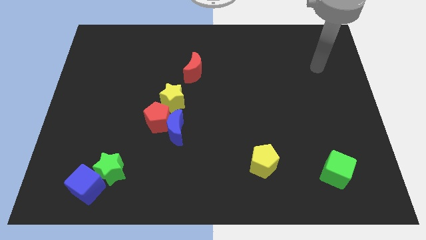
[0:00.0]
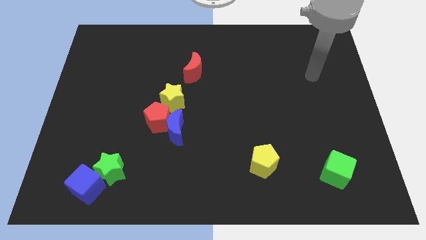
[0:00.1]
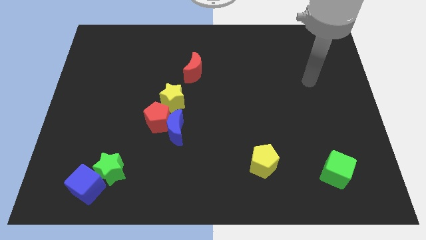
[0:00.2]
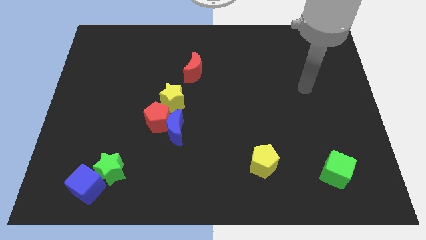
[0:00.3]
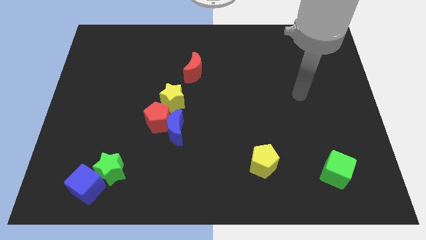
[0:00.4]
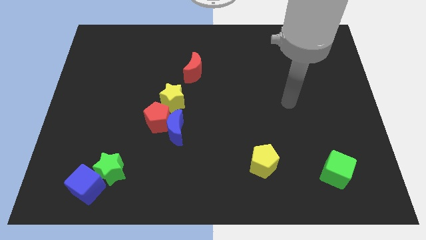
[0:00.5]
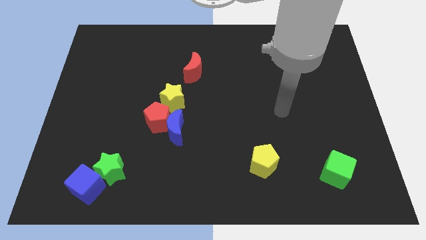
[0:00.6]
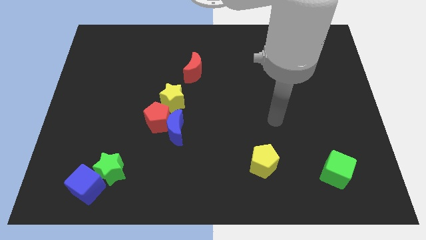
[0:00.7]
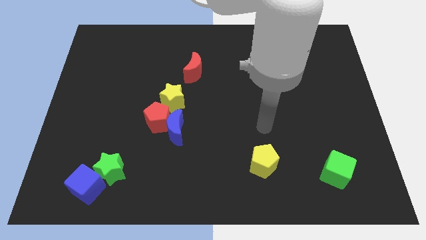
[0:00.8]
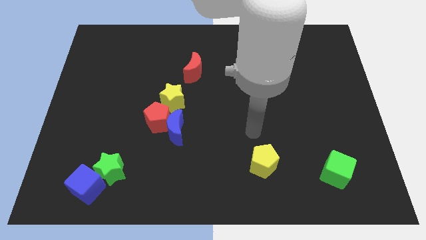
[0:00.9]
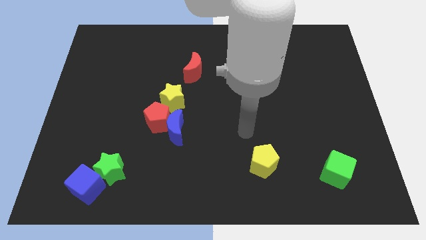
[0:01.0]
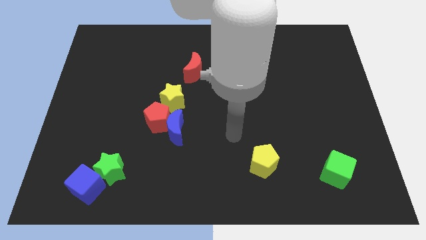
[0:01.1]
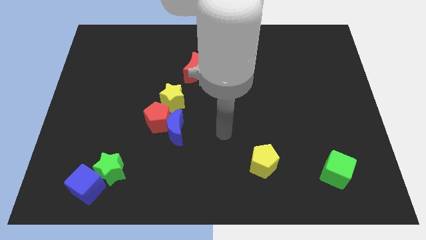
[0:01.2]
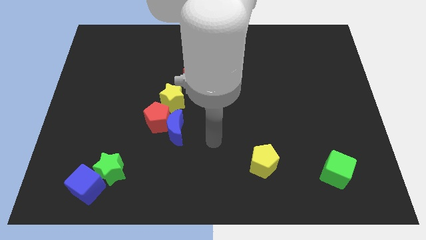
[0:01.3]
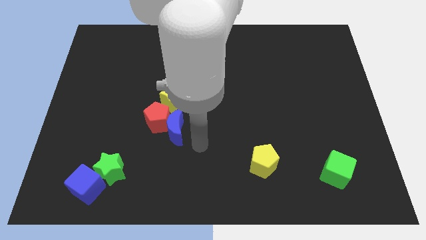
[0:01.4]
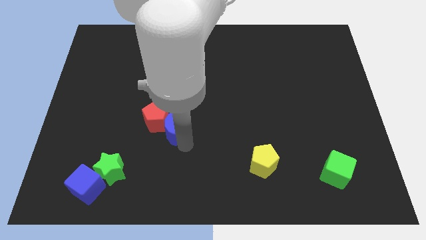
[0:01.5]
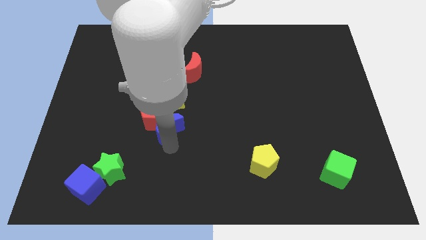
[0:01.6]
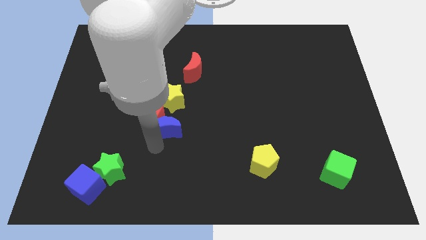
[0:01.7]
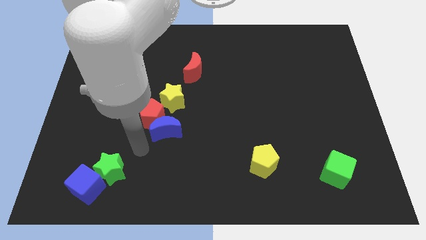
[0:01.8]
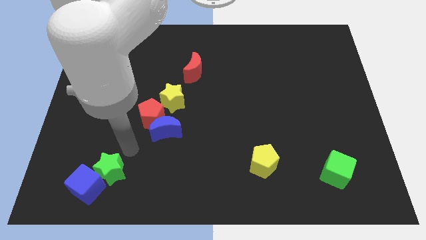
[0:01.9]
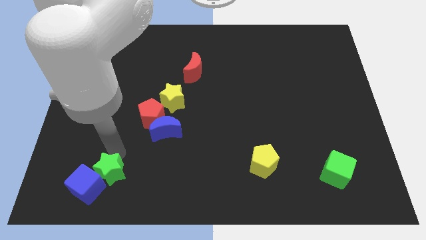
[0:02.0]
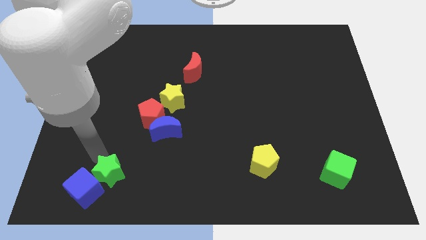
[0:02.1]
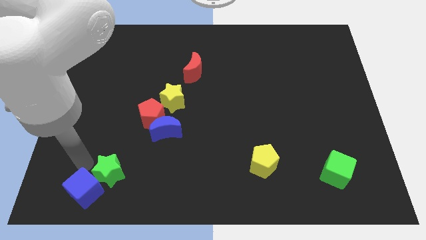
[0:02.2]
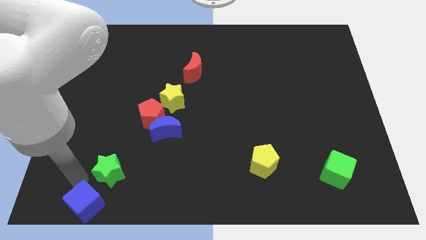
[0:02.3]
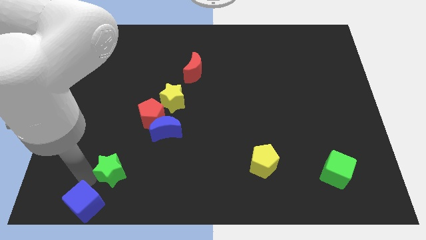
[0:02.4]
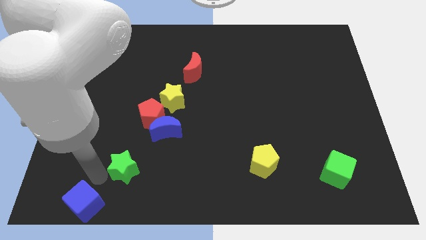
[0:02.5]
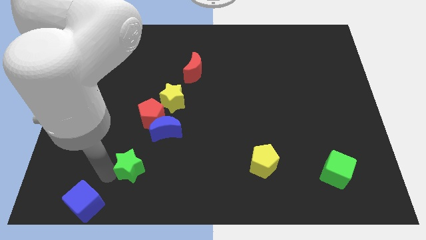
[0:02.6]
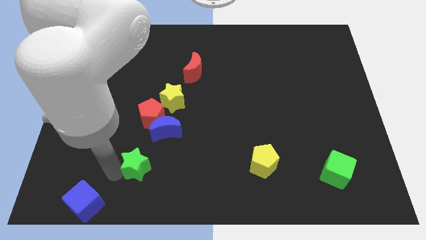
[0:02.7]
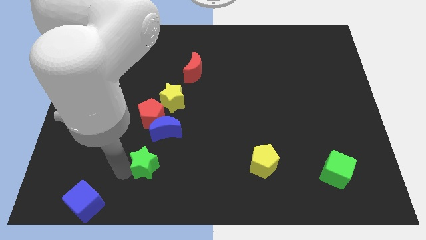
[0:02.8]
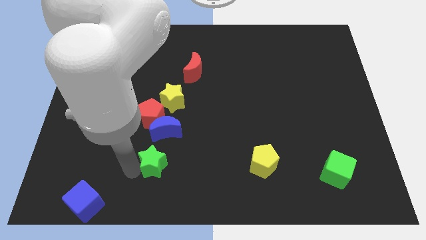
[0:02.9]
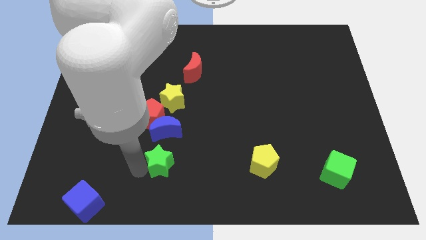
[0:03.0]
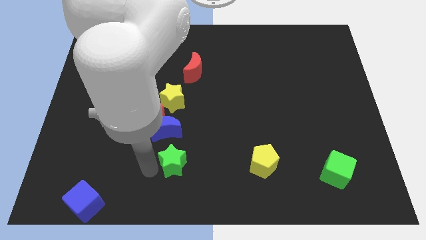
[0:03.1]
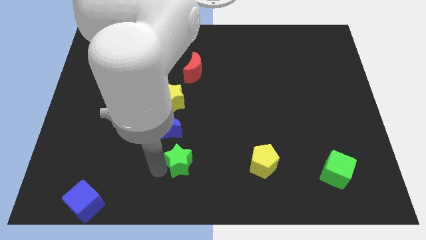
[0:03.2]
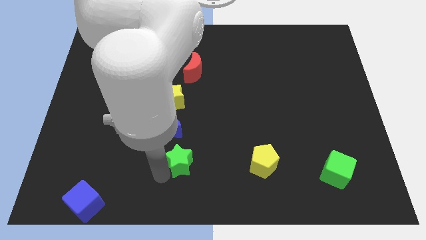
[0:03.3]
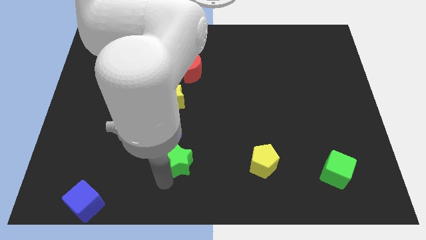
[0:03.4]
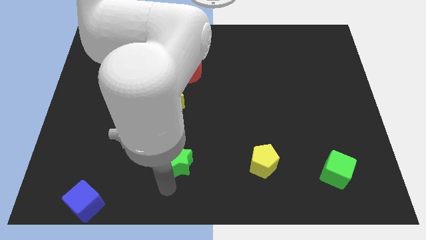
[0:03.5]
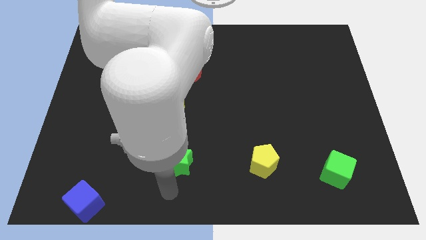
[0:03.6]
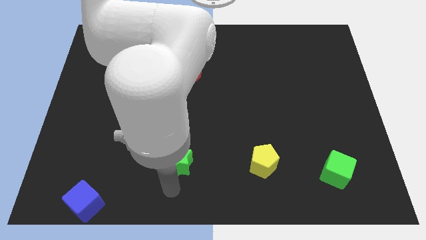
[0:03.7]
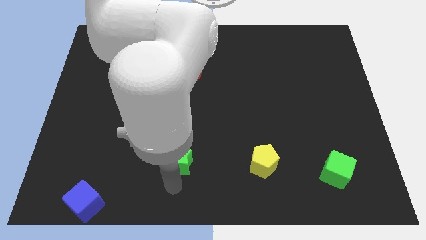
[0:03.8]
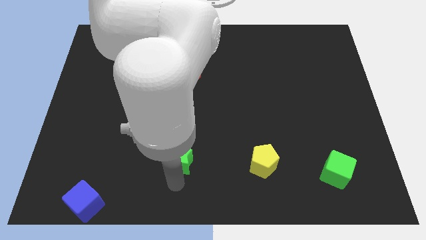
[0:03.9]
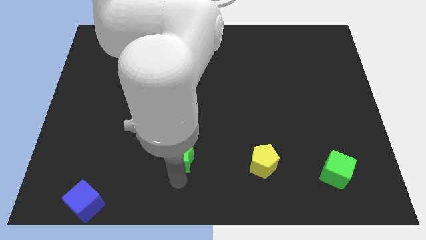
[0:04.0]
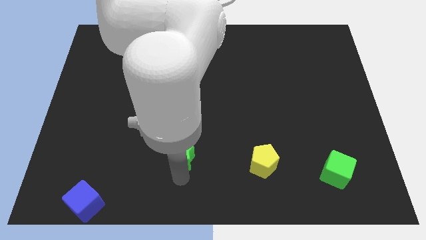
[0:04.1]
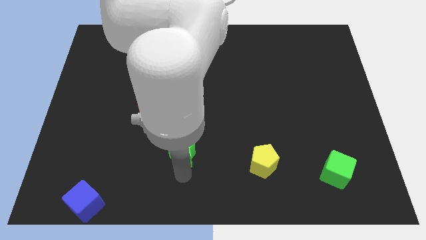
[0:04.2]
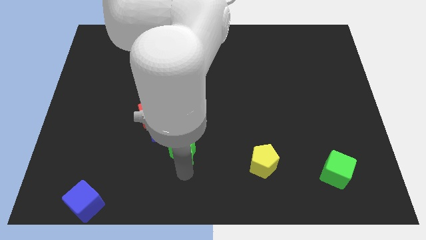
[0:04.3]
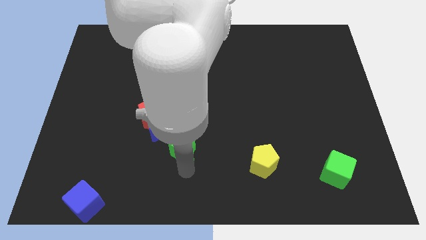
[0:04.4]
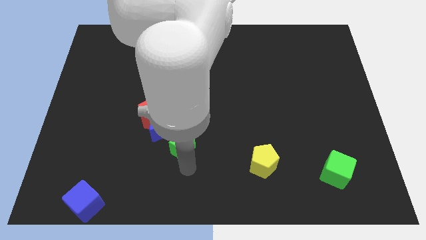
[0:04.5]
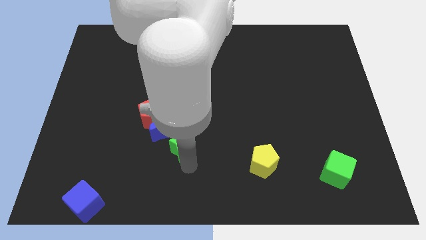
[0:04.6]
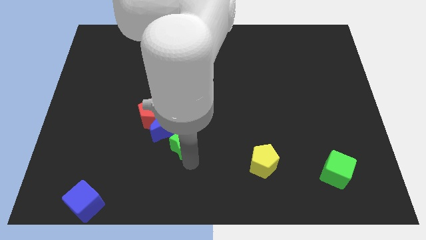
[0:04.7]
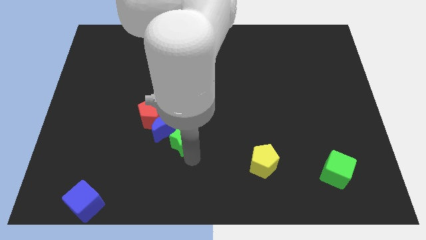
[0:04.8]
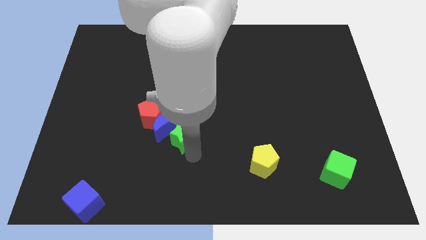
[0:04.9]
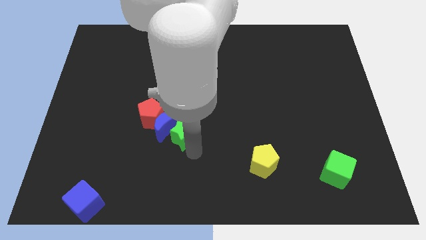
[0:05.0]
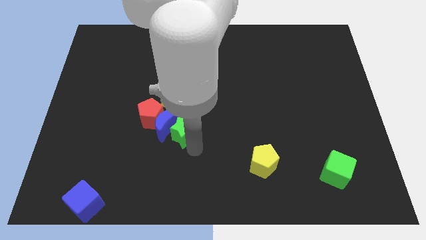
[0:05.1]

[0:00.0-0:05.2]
slide the green star just right of the red pentagon

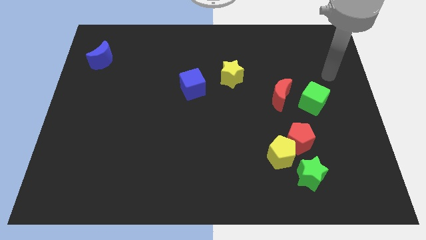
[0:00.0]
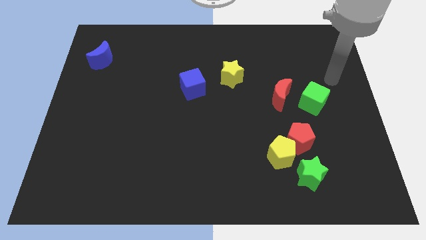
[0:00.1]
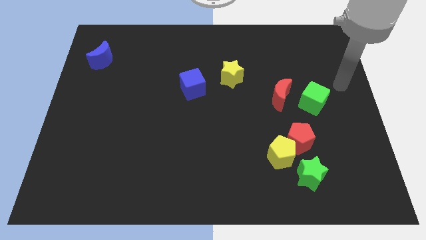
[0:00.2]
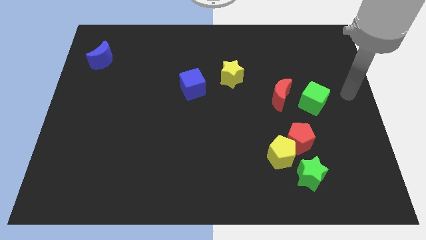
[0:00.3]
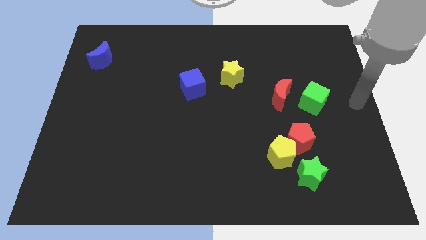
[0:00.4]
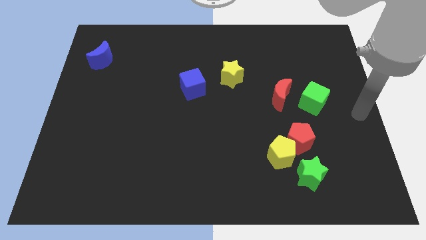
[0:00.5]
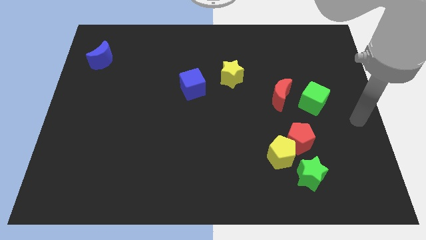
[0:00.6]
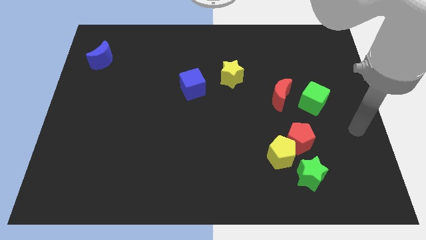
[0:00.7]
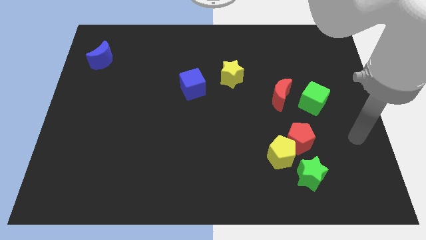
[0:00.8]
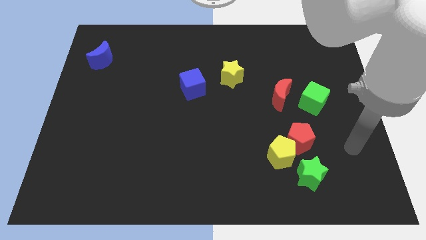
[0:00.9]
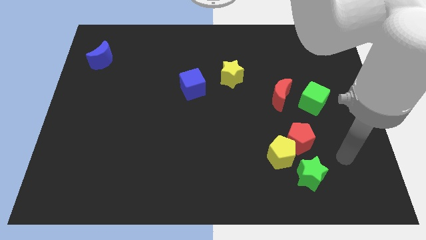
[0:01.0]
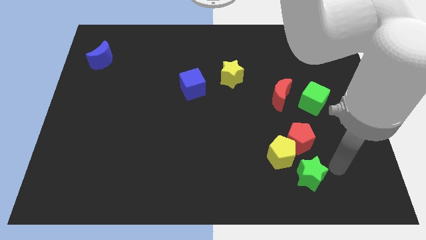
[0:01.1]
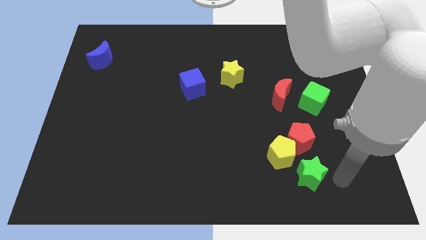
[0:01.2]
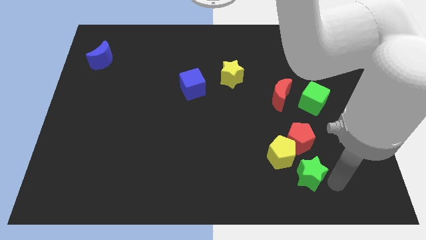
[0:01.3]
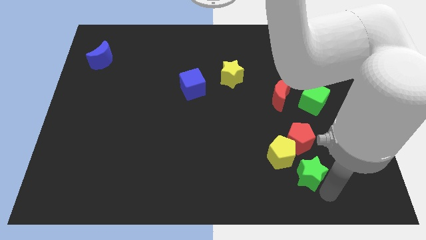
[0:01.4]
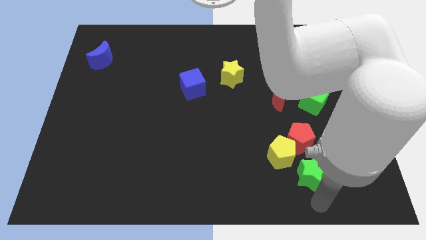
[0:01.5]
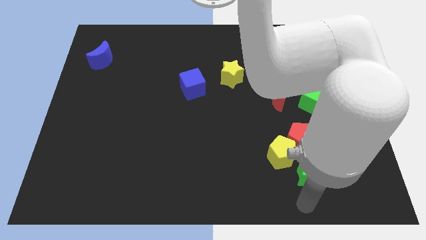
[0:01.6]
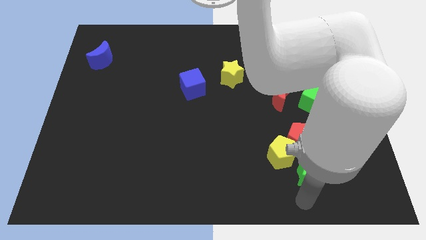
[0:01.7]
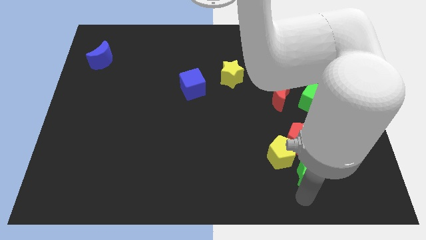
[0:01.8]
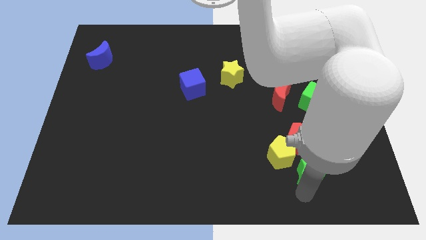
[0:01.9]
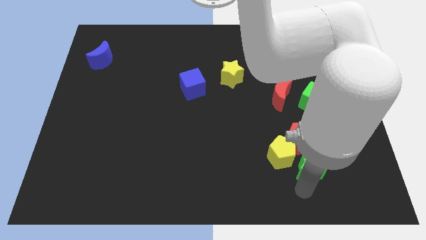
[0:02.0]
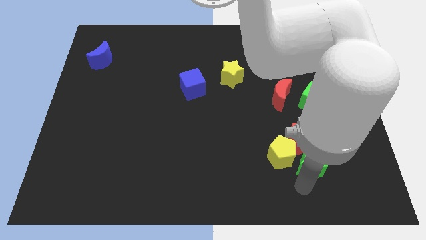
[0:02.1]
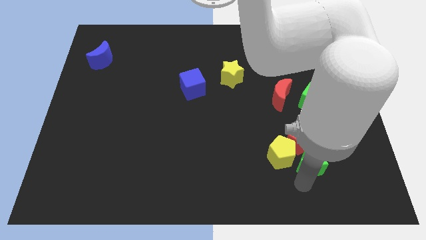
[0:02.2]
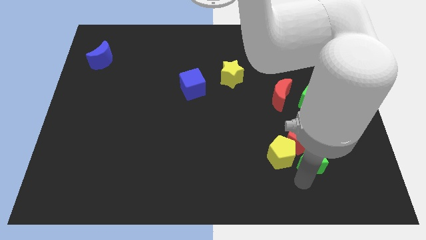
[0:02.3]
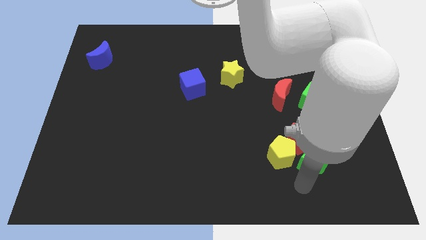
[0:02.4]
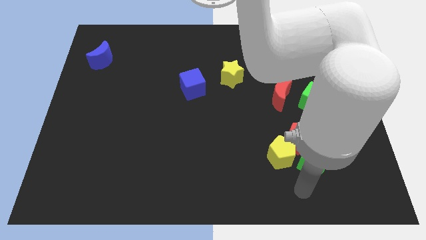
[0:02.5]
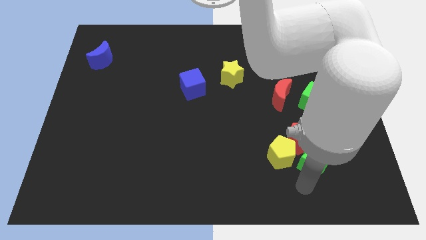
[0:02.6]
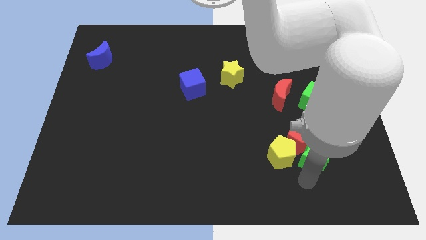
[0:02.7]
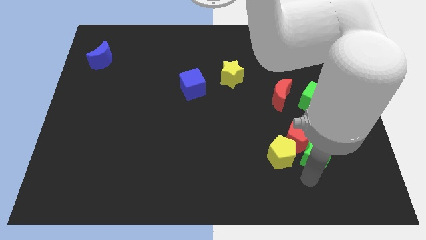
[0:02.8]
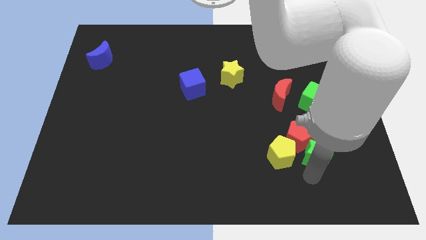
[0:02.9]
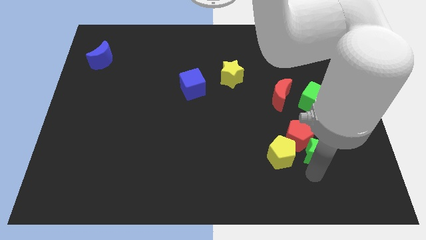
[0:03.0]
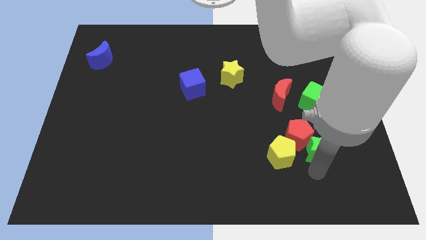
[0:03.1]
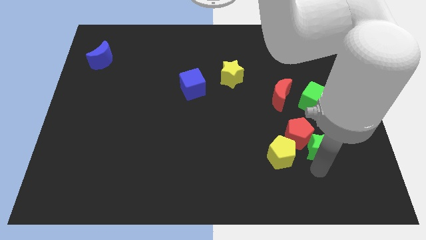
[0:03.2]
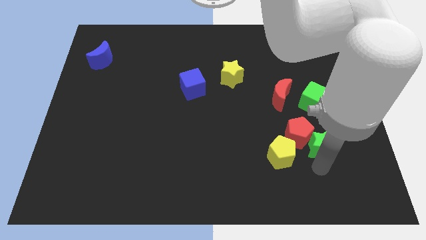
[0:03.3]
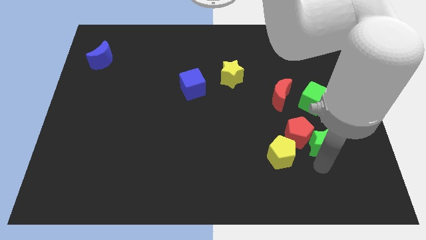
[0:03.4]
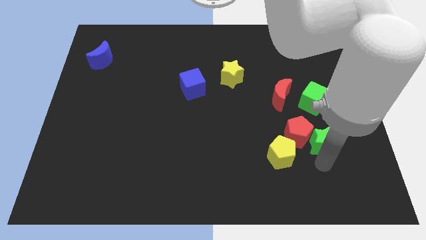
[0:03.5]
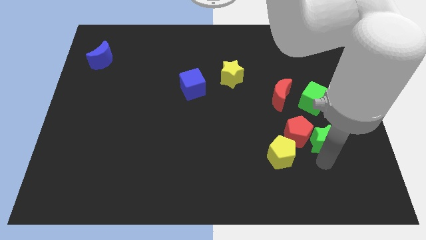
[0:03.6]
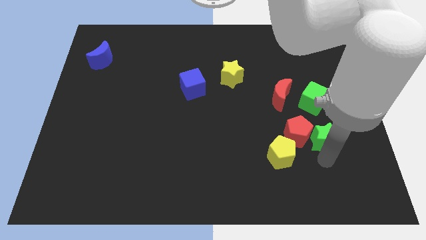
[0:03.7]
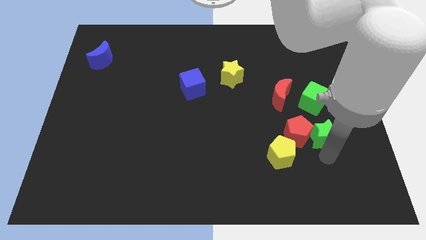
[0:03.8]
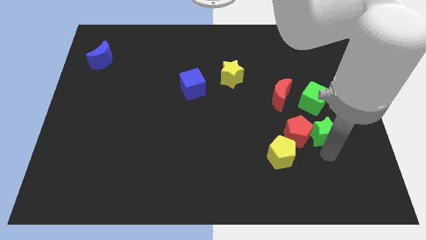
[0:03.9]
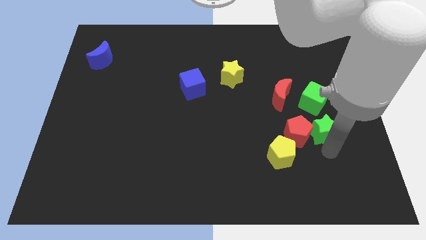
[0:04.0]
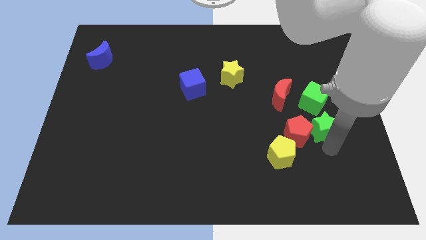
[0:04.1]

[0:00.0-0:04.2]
move the green star diagonally down and to the right of the red moon
